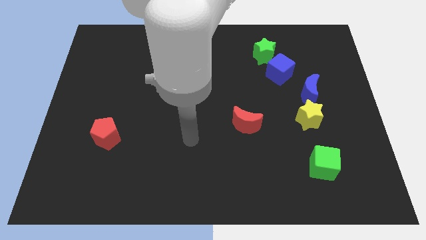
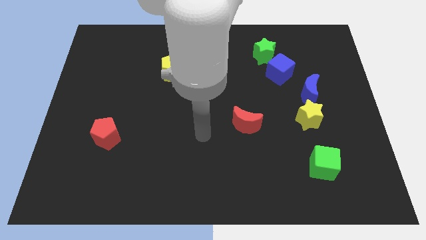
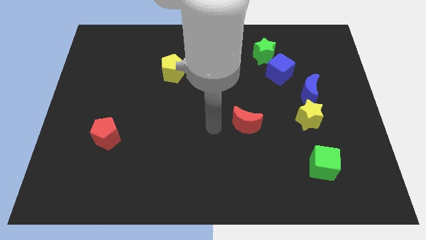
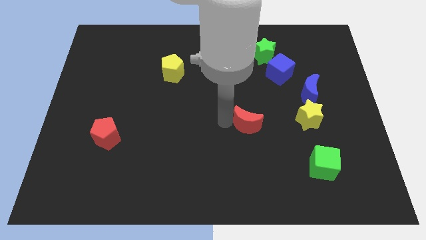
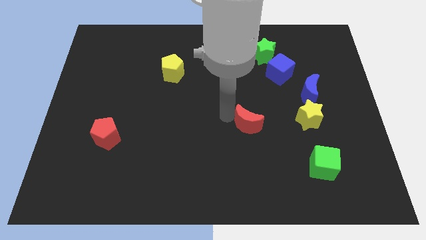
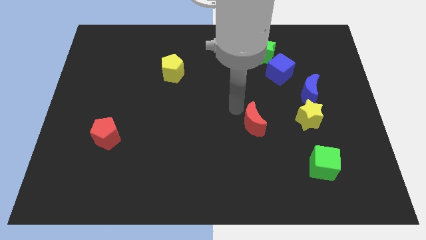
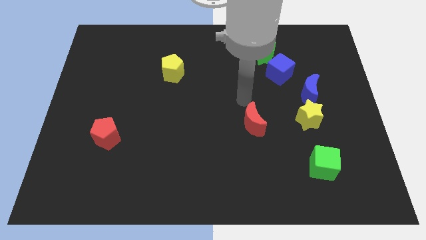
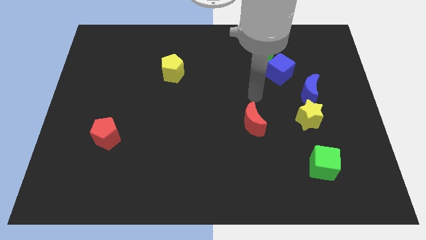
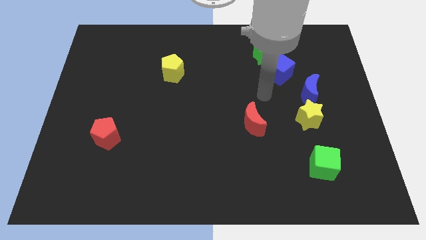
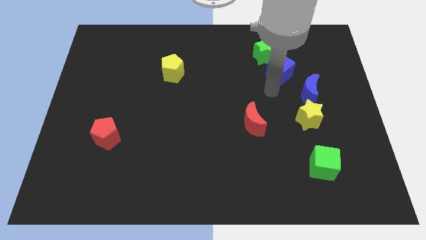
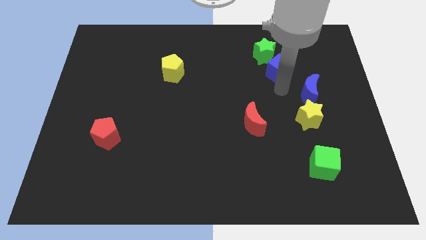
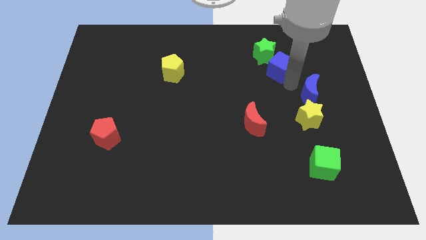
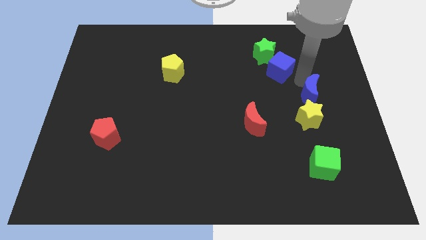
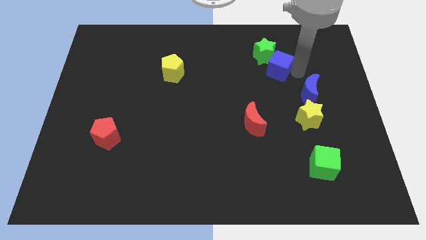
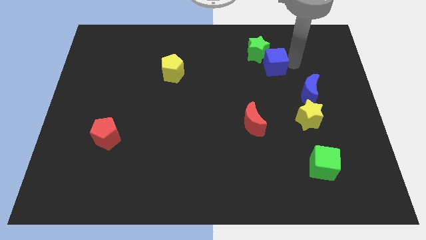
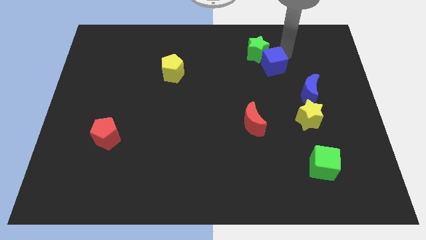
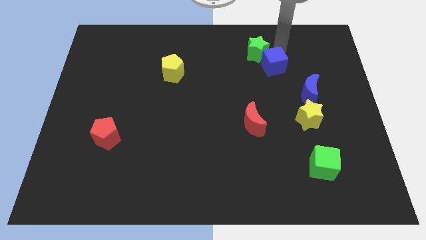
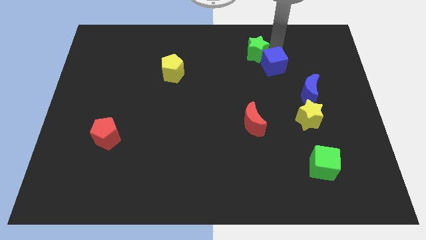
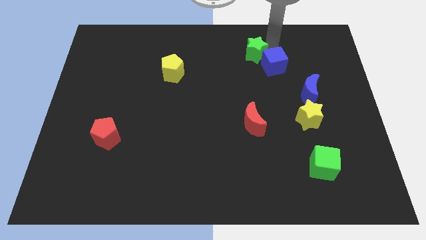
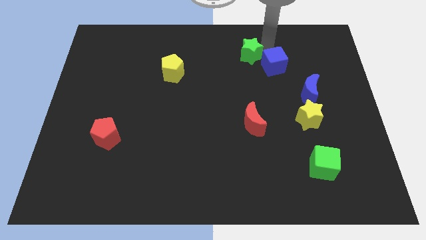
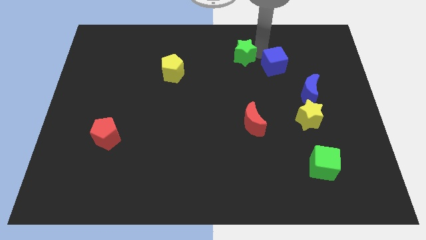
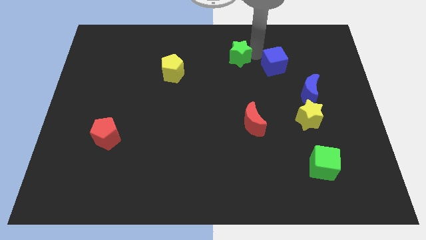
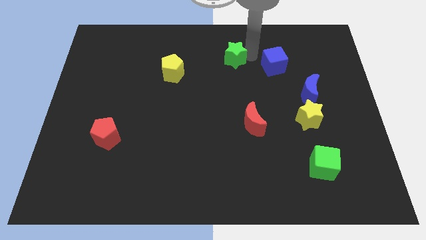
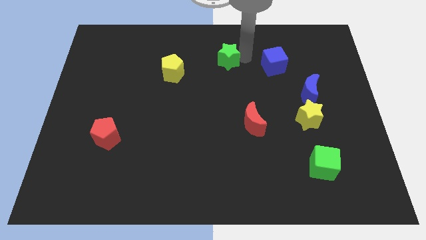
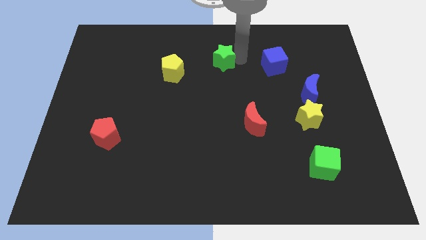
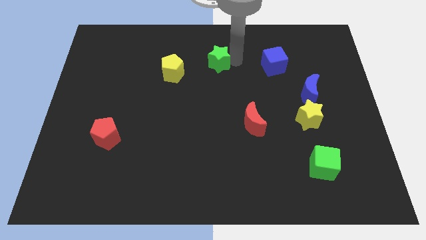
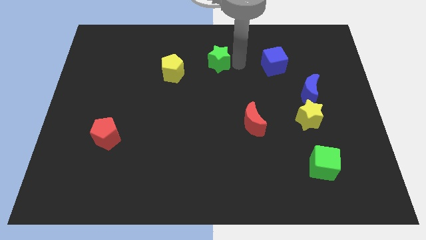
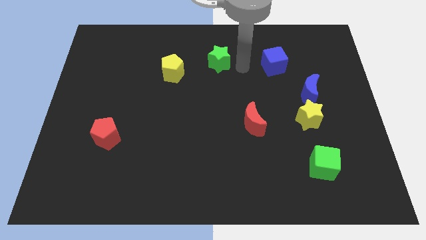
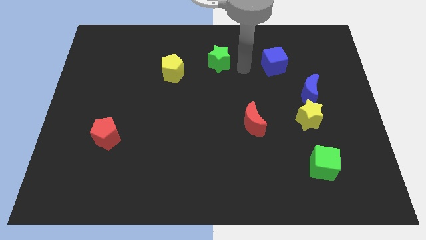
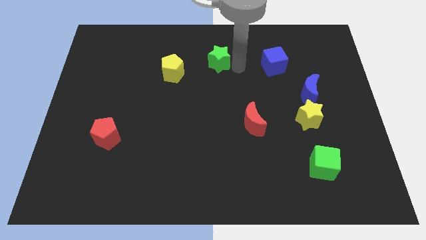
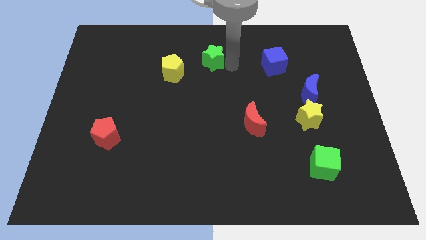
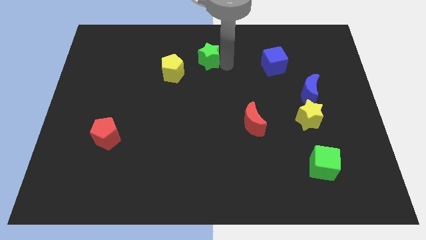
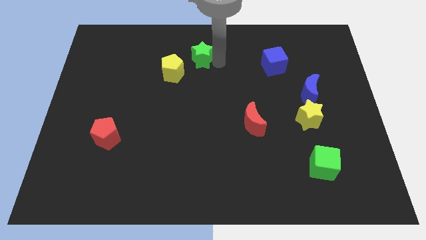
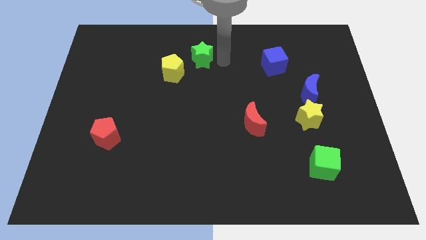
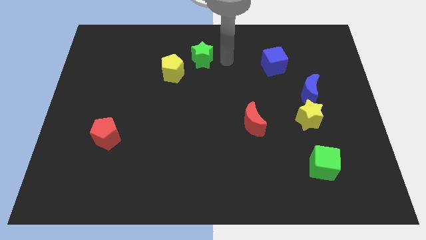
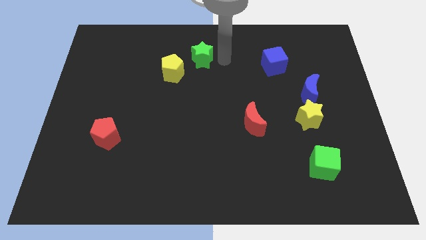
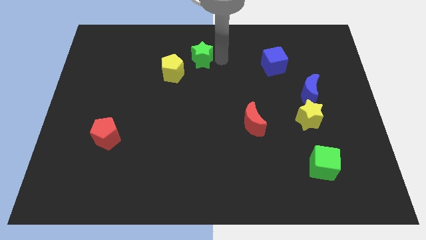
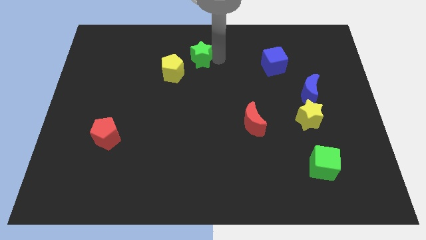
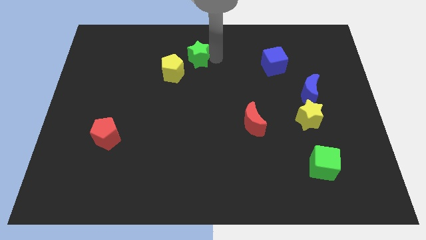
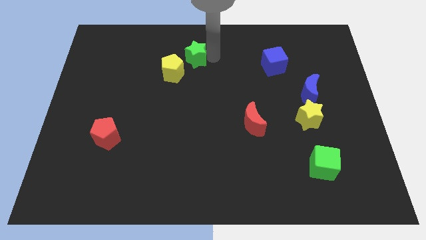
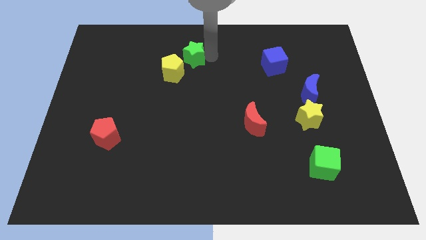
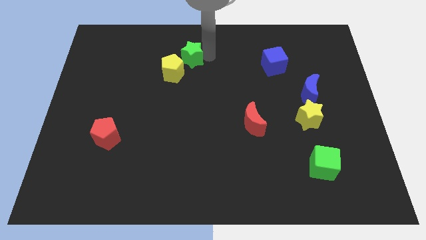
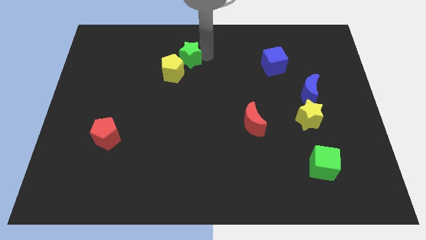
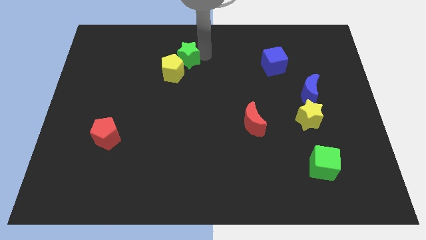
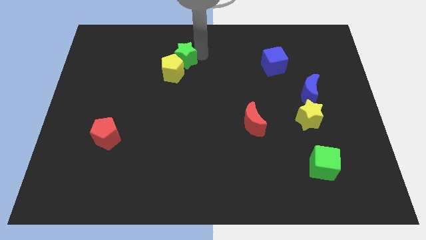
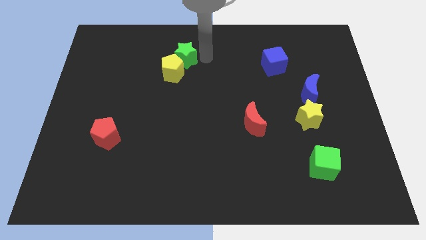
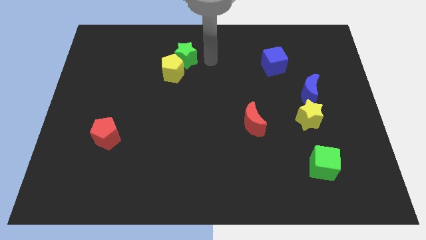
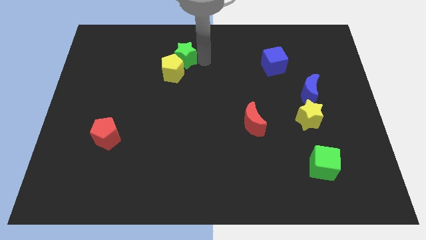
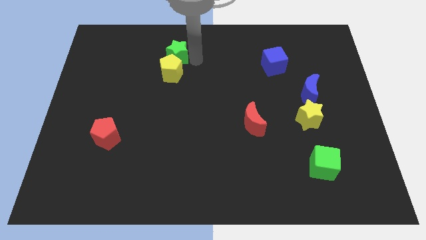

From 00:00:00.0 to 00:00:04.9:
push the green star diagonally up and to the left of the yellow pentagon

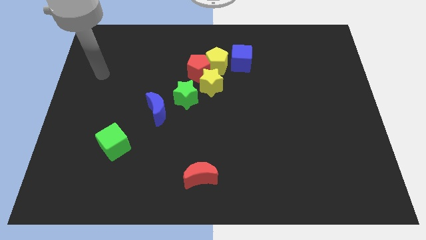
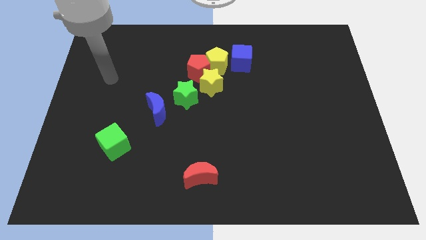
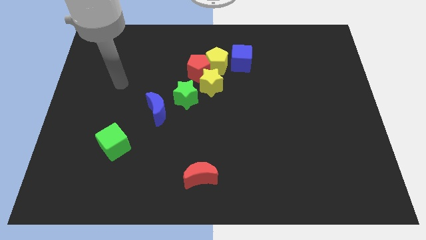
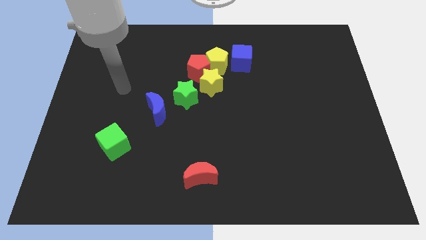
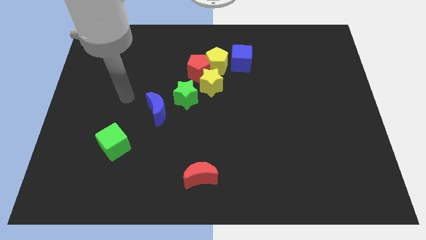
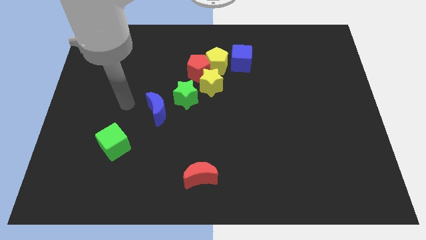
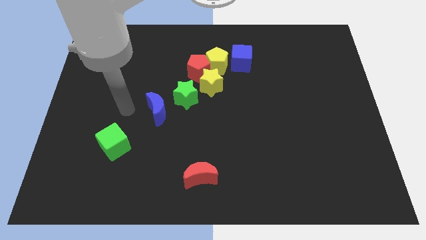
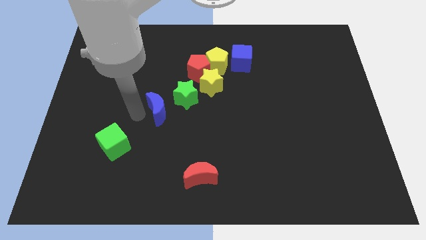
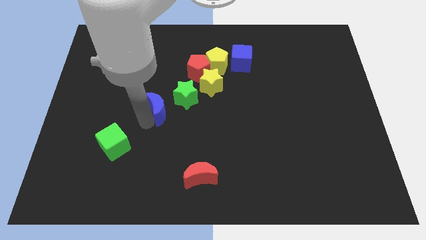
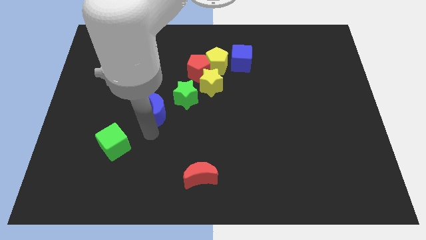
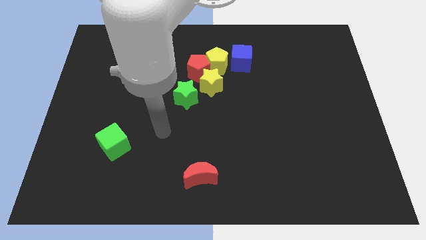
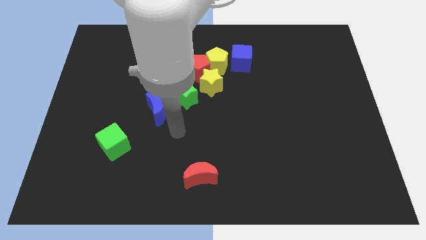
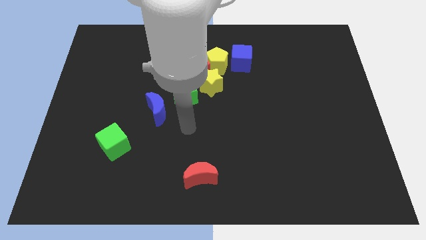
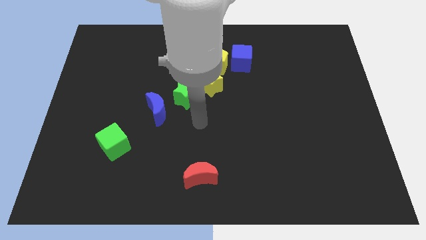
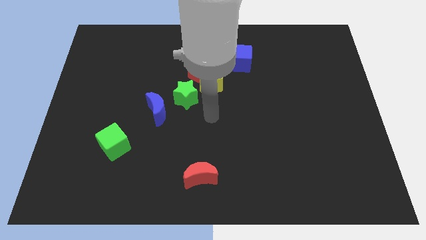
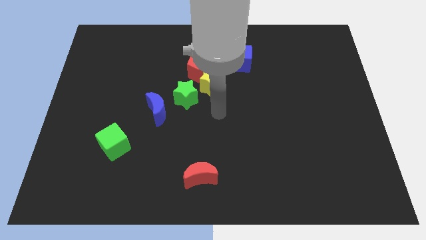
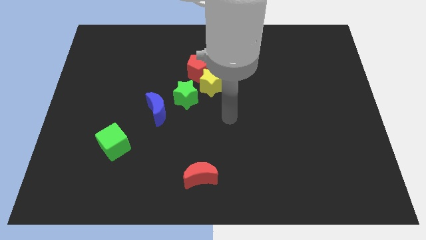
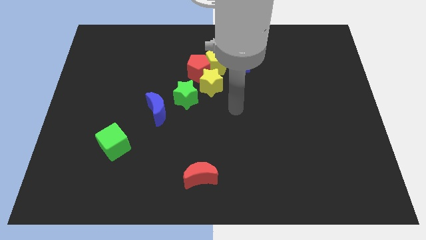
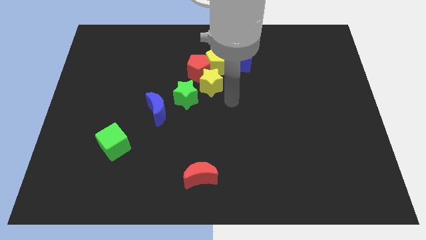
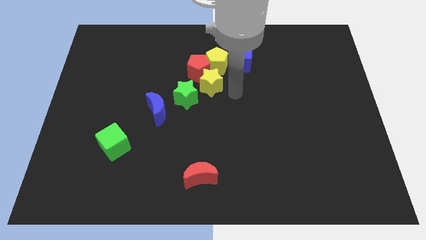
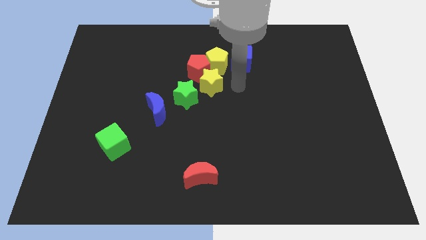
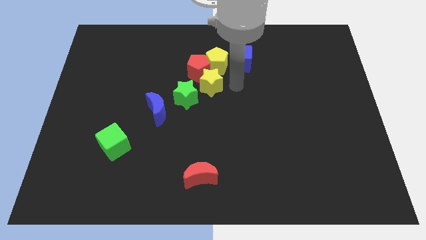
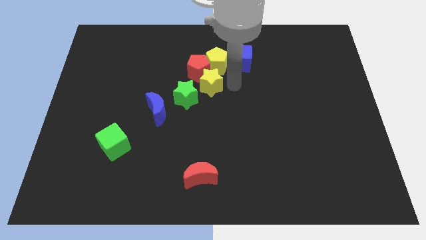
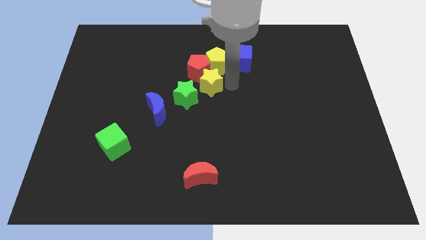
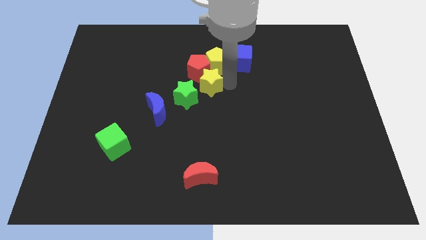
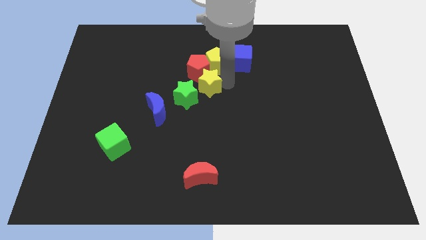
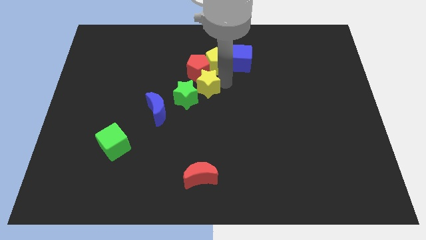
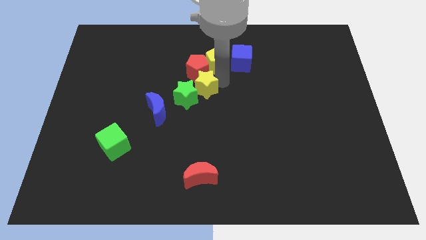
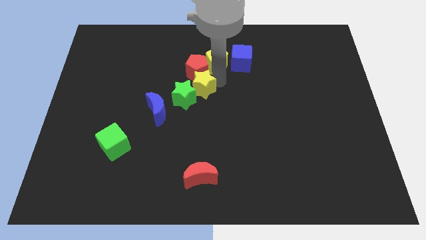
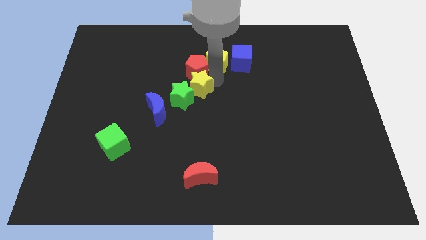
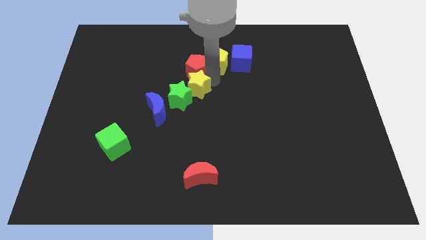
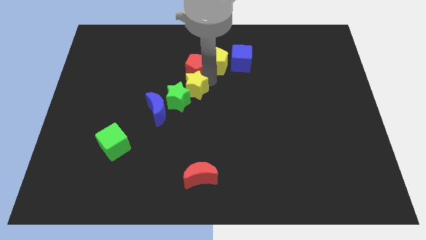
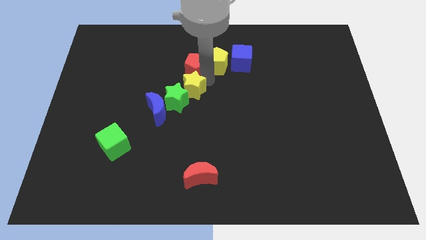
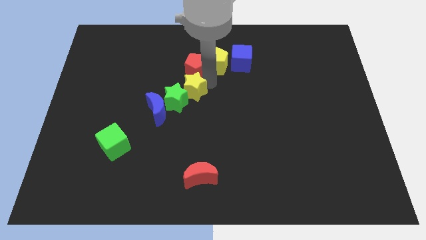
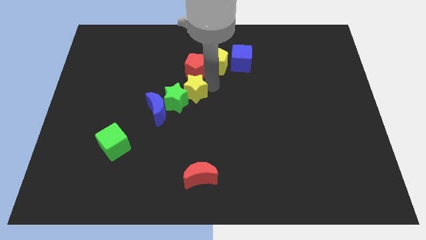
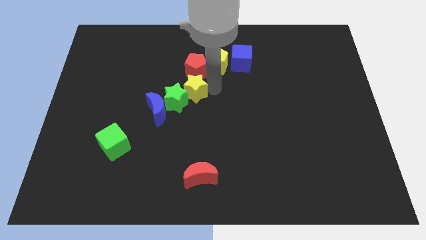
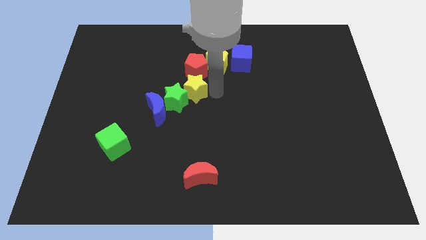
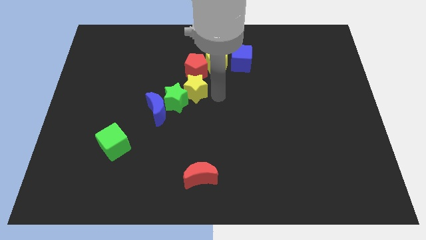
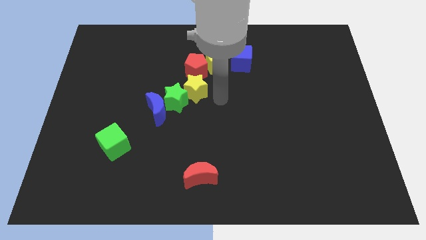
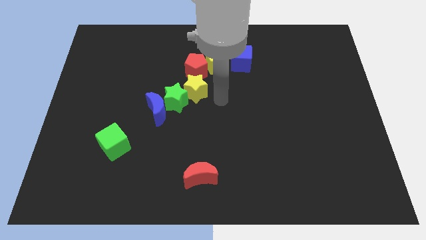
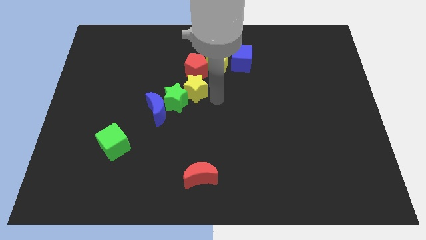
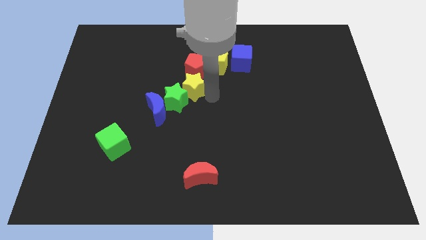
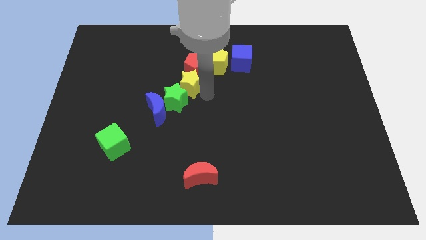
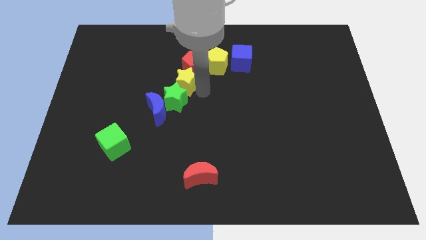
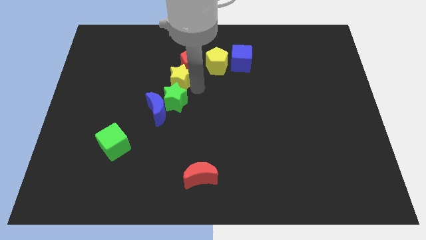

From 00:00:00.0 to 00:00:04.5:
push the yellow star to the top side of the blue moon
